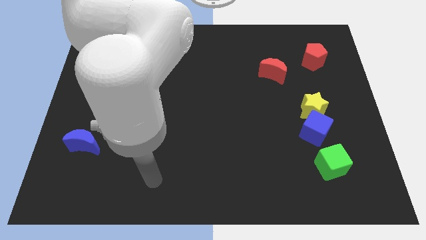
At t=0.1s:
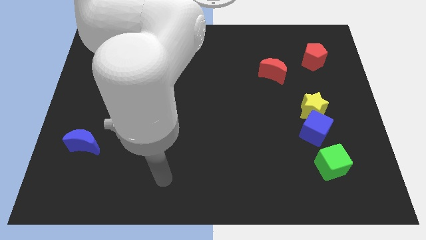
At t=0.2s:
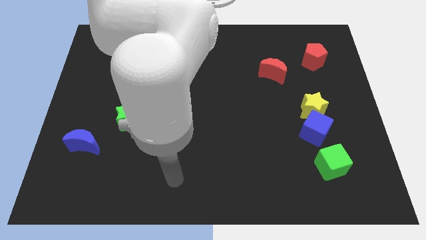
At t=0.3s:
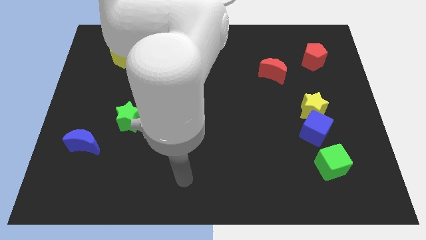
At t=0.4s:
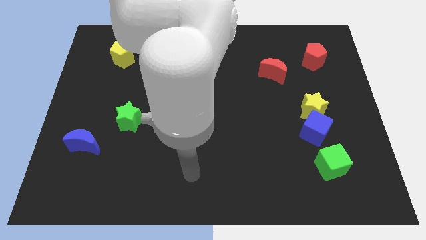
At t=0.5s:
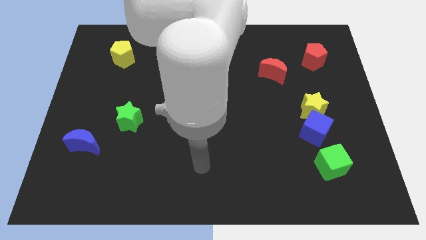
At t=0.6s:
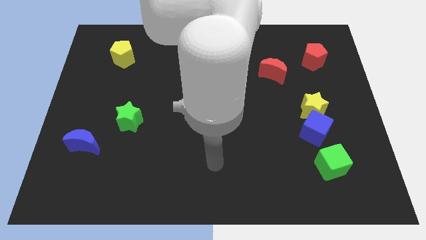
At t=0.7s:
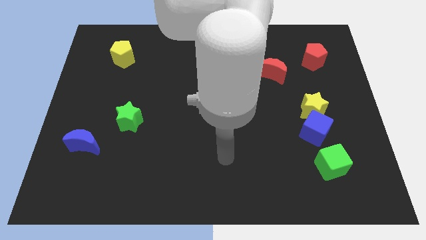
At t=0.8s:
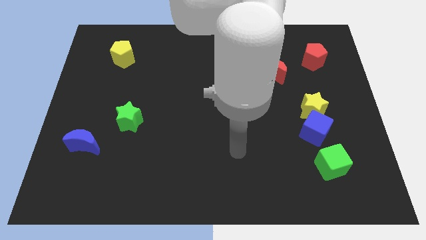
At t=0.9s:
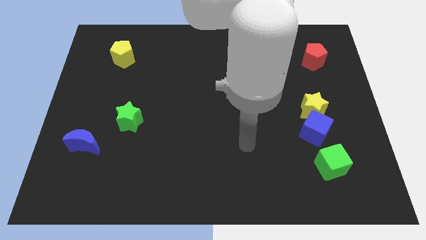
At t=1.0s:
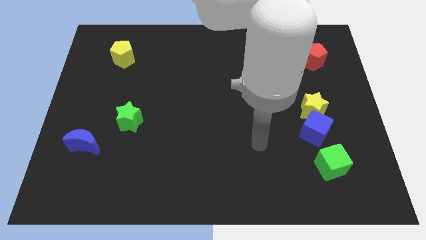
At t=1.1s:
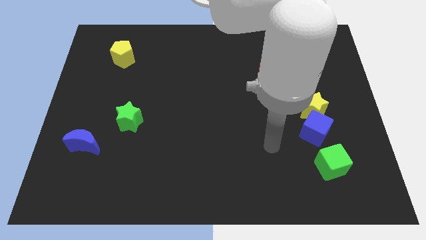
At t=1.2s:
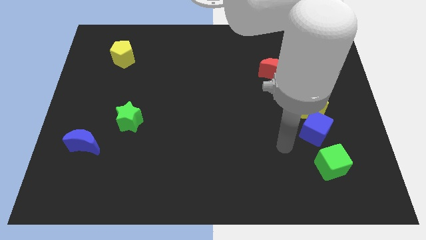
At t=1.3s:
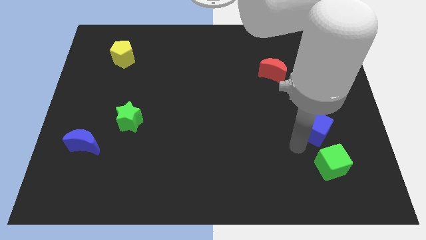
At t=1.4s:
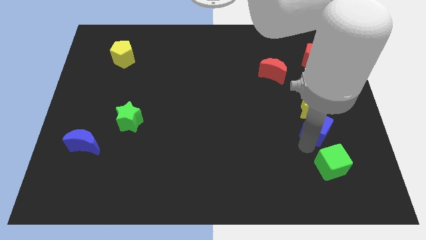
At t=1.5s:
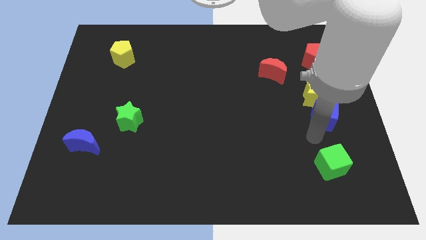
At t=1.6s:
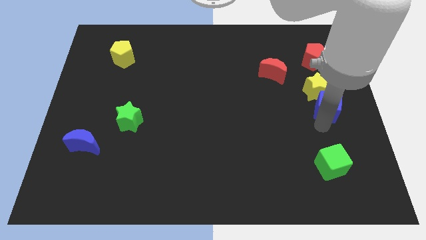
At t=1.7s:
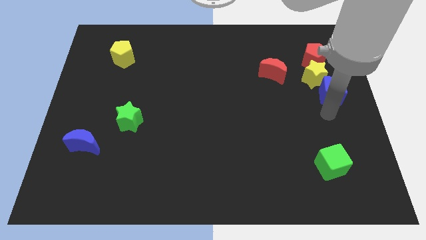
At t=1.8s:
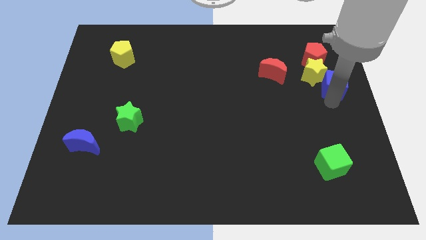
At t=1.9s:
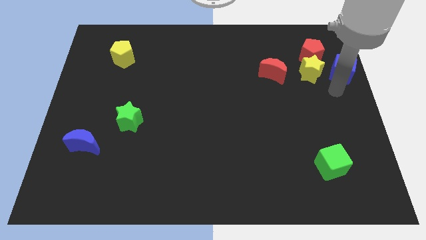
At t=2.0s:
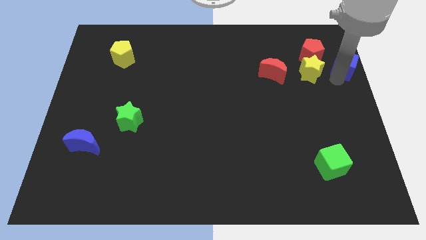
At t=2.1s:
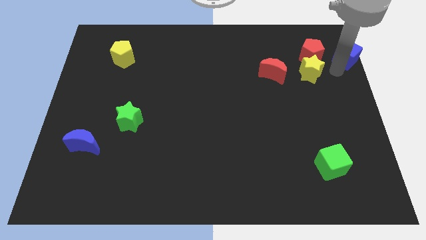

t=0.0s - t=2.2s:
separate the yellow star from the blue cube

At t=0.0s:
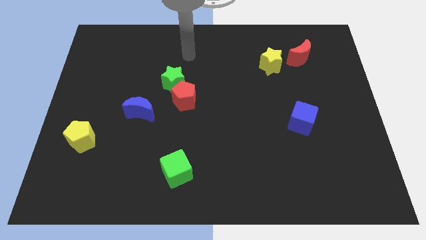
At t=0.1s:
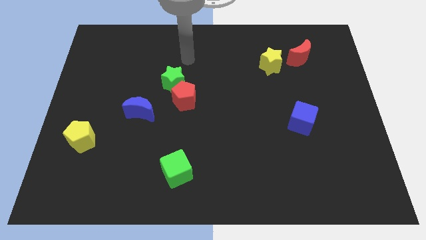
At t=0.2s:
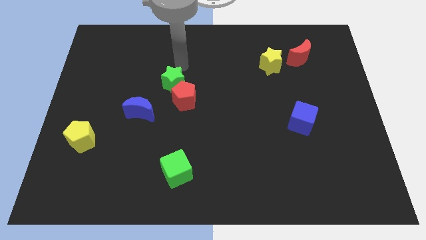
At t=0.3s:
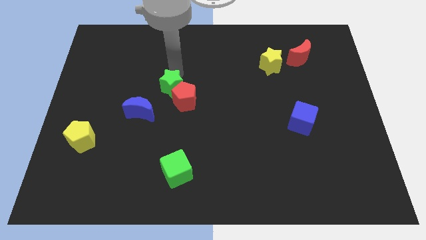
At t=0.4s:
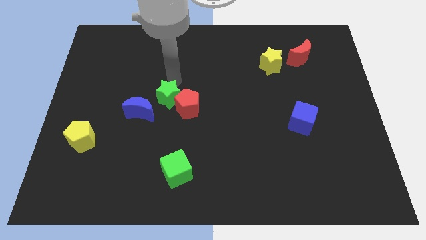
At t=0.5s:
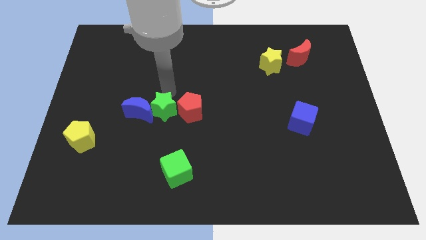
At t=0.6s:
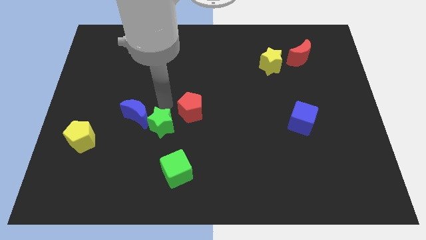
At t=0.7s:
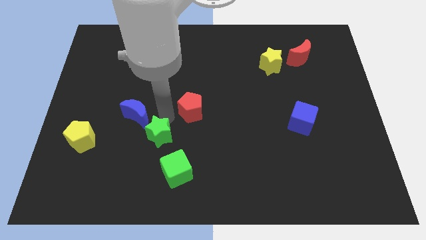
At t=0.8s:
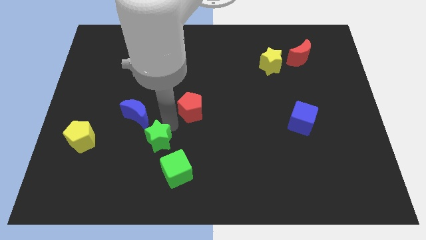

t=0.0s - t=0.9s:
move the red pentagon away from the green star

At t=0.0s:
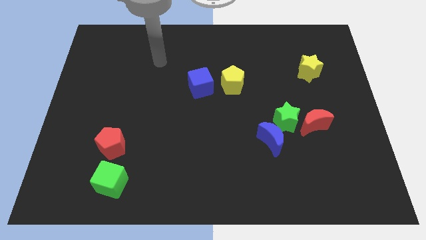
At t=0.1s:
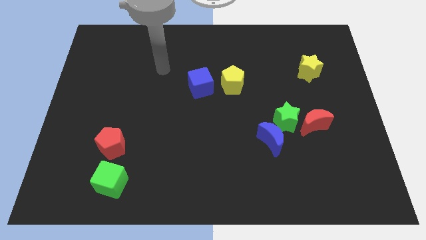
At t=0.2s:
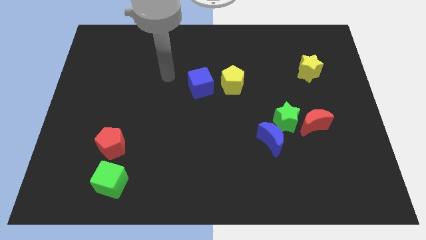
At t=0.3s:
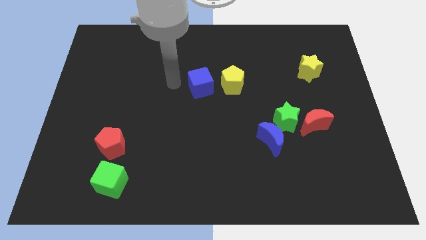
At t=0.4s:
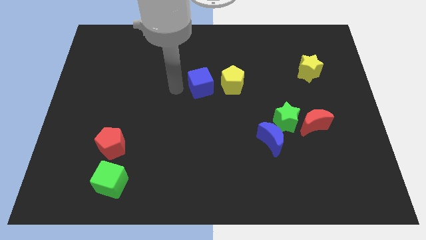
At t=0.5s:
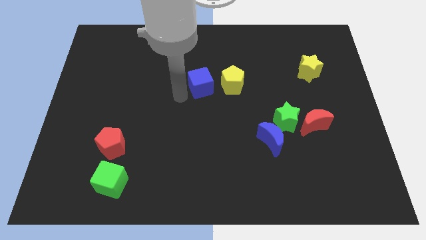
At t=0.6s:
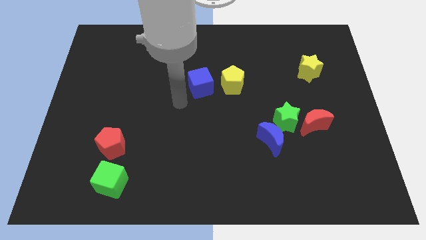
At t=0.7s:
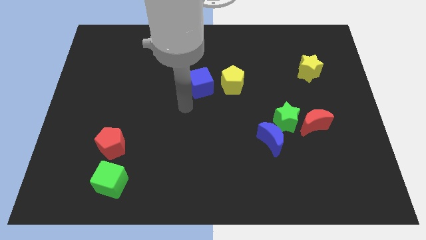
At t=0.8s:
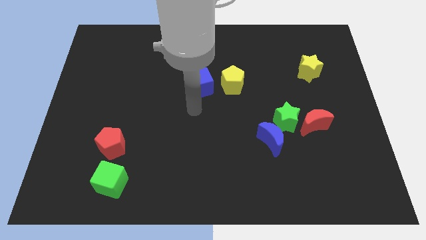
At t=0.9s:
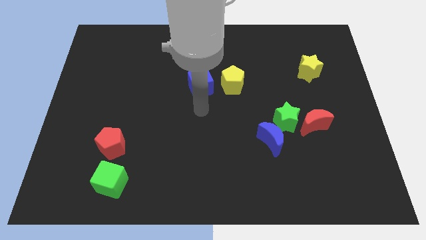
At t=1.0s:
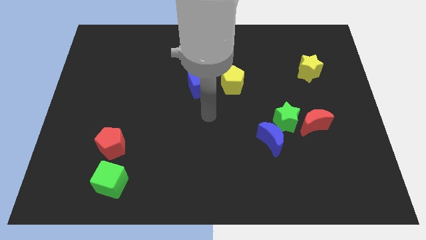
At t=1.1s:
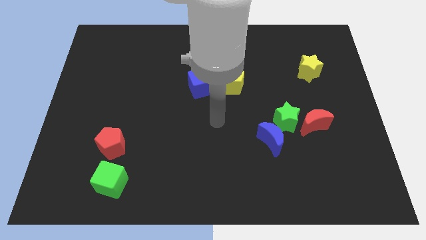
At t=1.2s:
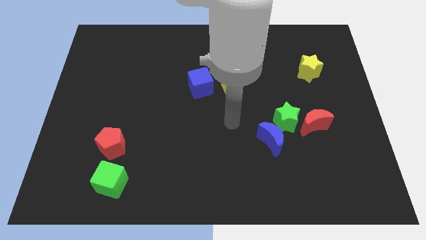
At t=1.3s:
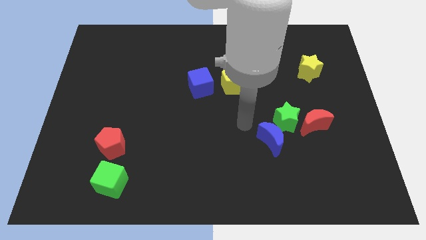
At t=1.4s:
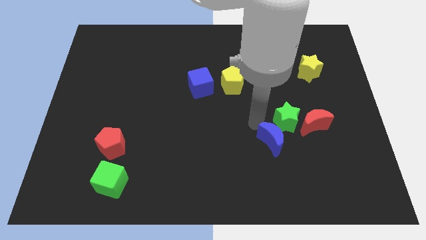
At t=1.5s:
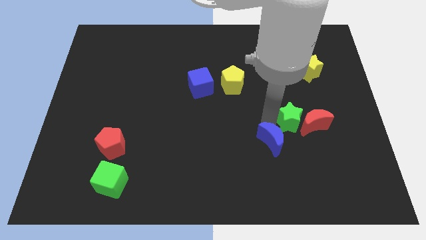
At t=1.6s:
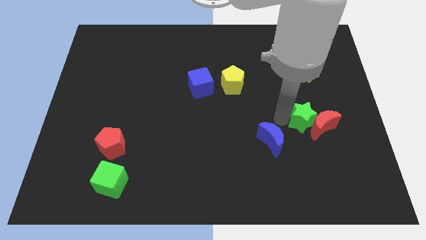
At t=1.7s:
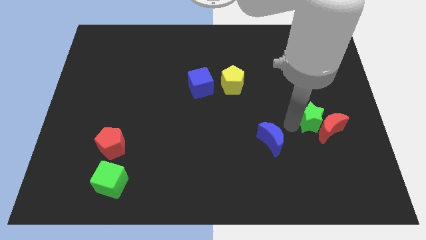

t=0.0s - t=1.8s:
move the blue moon away from the green star

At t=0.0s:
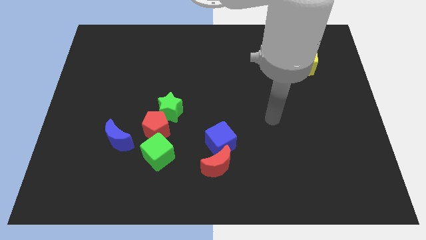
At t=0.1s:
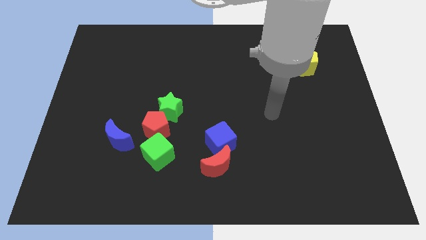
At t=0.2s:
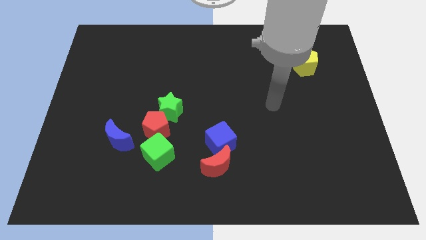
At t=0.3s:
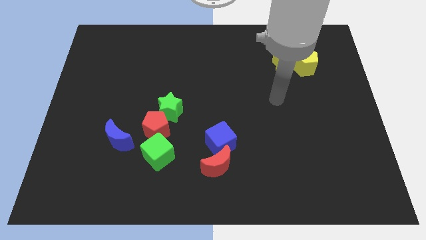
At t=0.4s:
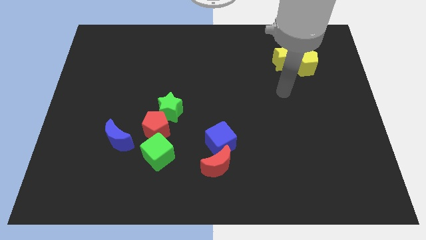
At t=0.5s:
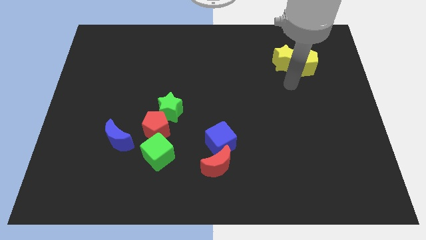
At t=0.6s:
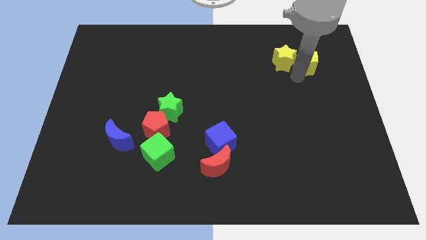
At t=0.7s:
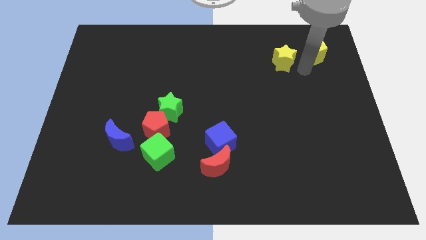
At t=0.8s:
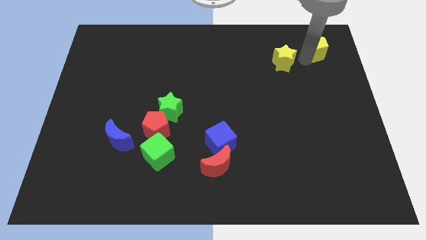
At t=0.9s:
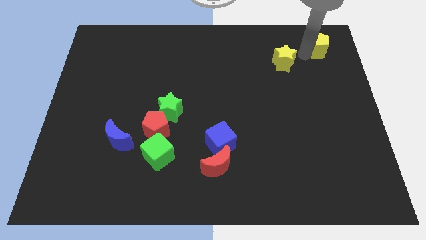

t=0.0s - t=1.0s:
move the yellow star away from the yellow pentagon

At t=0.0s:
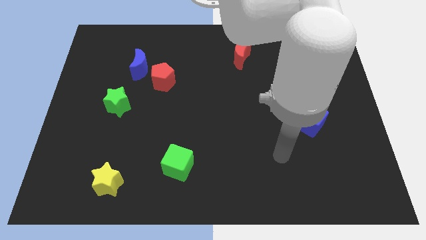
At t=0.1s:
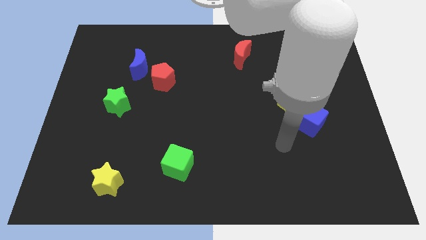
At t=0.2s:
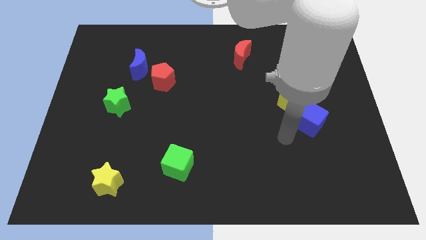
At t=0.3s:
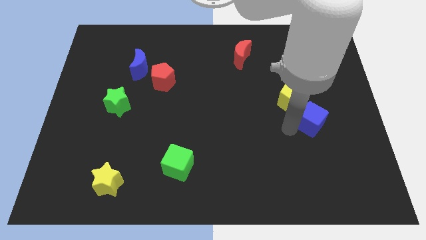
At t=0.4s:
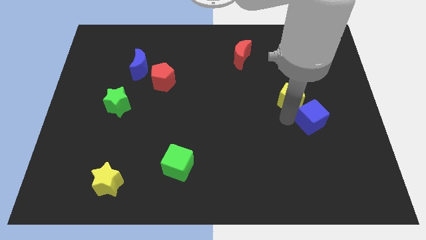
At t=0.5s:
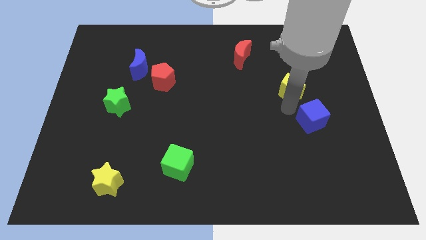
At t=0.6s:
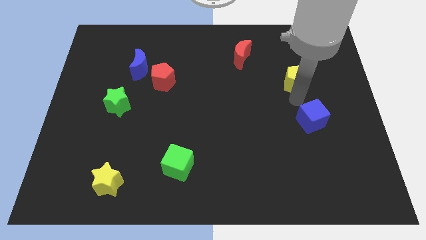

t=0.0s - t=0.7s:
move the blue cube away from the yellow pentagon

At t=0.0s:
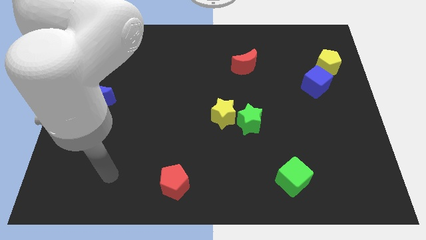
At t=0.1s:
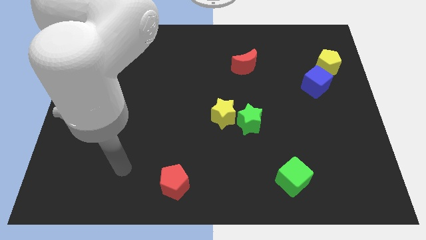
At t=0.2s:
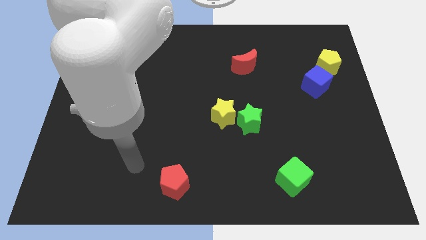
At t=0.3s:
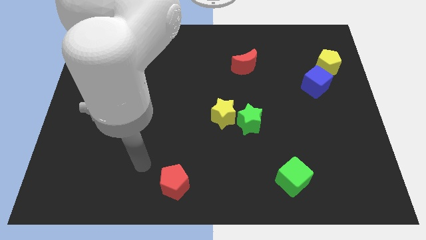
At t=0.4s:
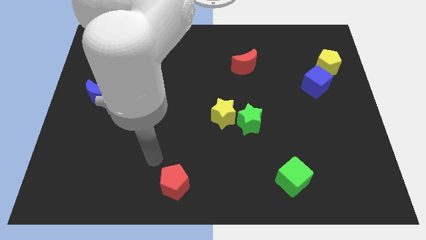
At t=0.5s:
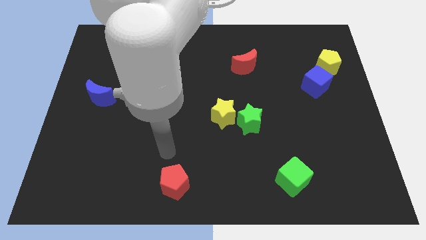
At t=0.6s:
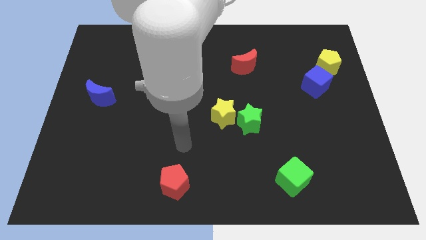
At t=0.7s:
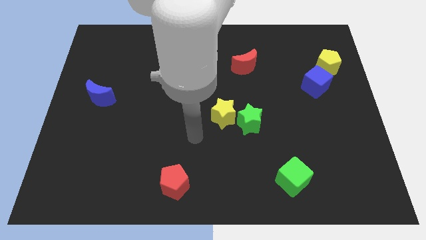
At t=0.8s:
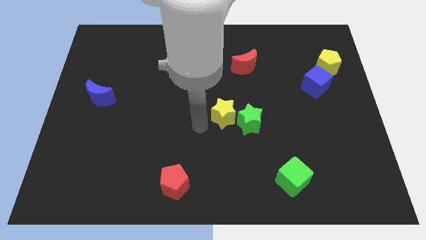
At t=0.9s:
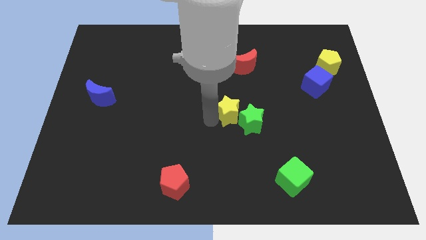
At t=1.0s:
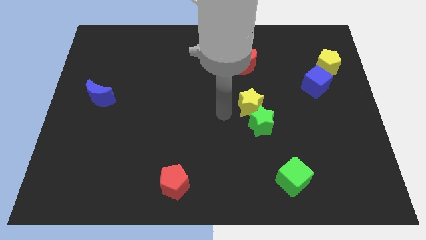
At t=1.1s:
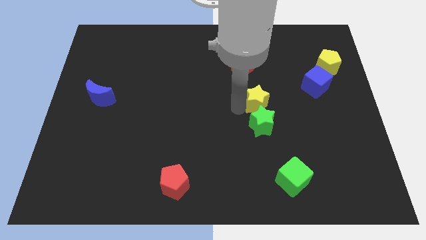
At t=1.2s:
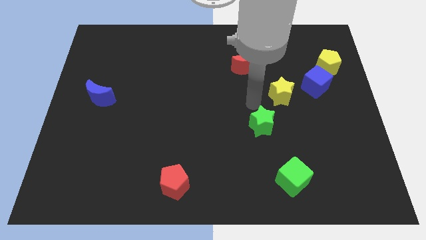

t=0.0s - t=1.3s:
separate the green star from the yellow star

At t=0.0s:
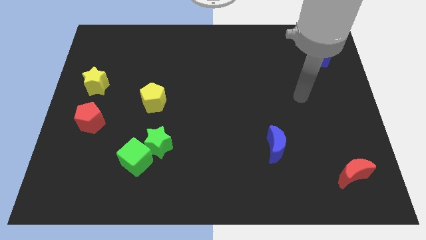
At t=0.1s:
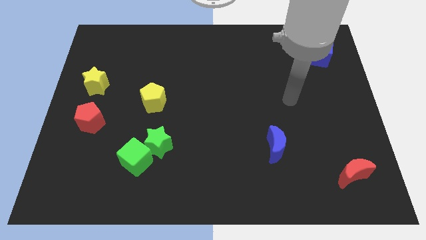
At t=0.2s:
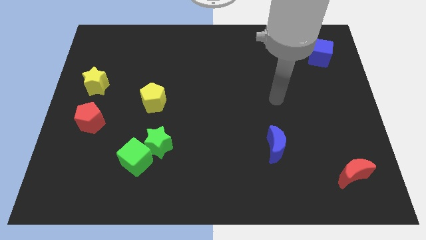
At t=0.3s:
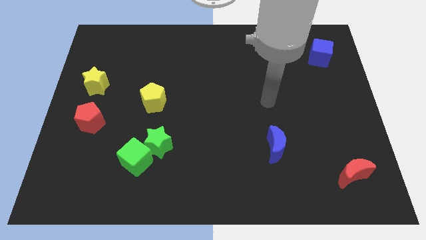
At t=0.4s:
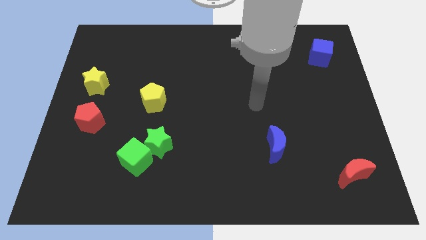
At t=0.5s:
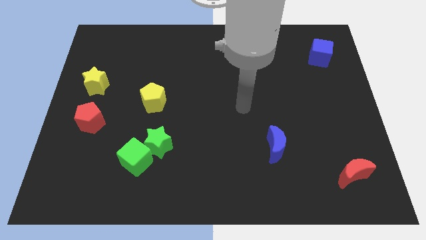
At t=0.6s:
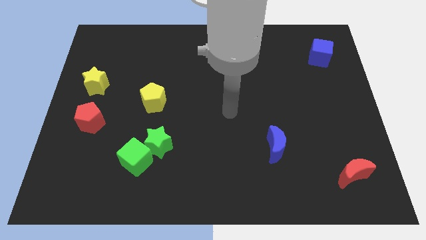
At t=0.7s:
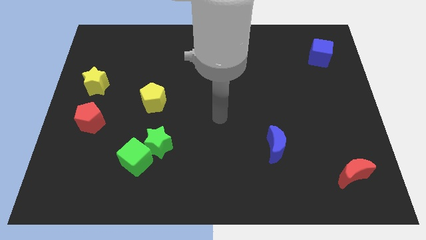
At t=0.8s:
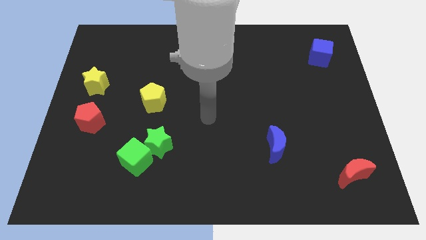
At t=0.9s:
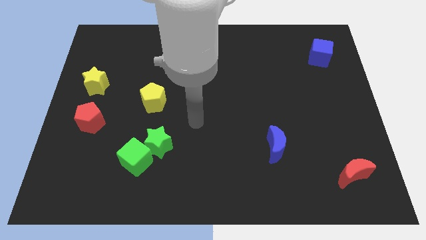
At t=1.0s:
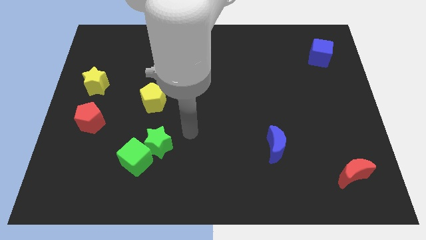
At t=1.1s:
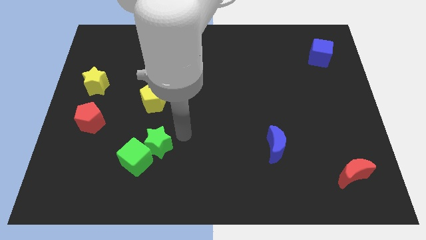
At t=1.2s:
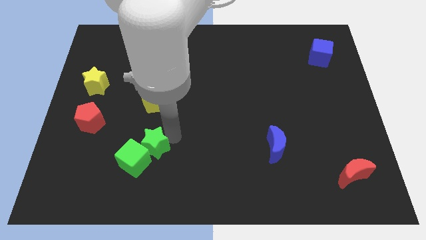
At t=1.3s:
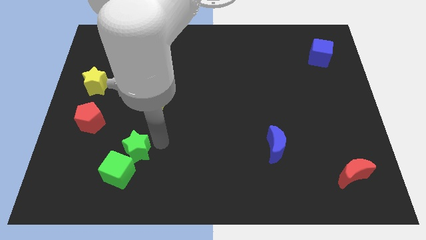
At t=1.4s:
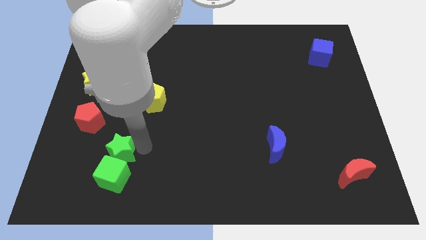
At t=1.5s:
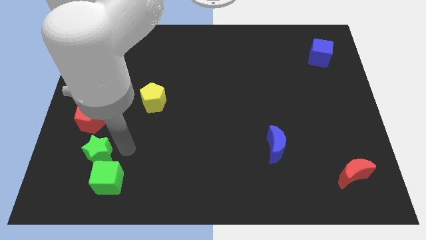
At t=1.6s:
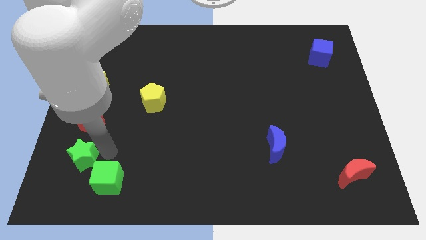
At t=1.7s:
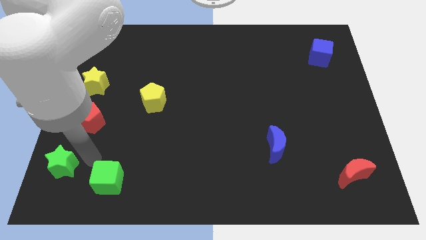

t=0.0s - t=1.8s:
separate the green cube from the green star
